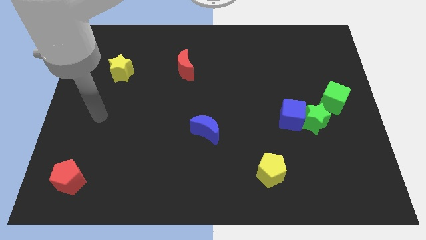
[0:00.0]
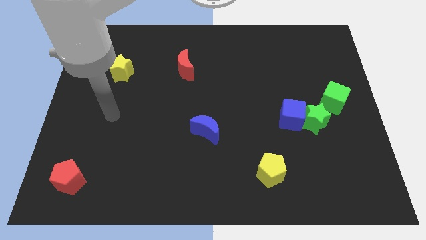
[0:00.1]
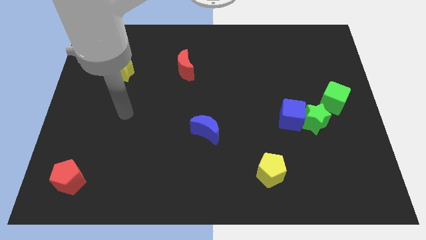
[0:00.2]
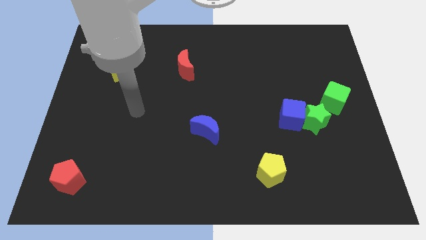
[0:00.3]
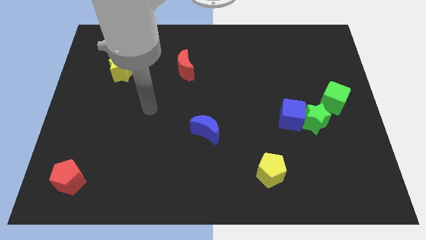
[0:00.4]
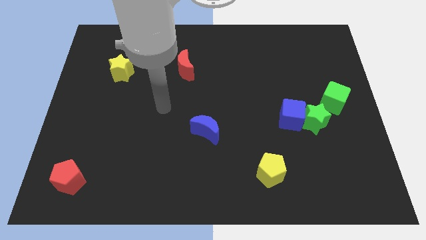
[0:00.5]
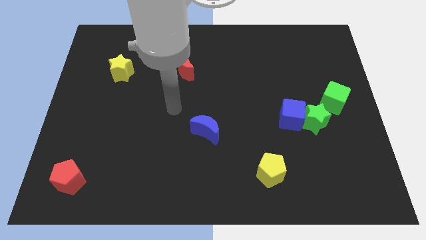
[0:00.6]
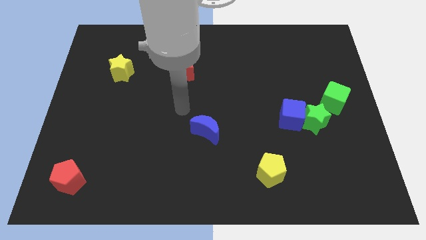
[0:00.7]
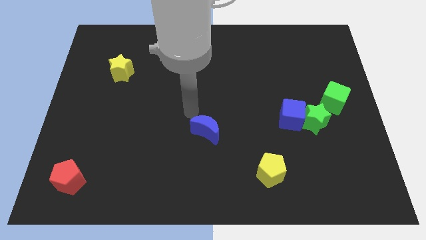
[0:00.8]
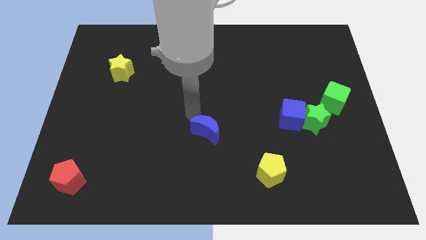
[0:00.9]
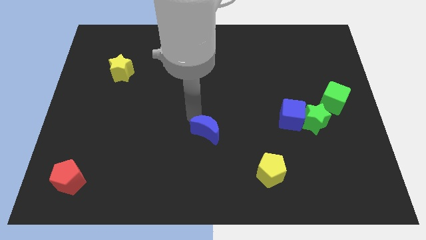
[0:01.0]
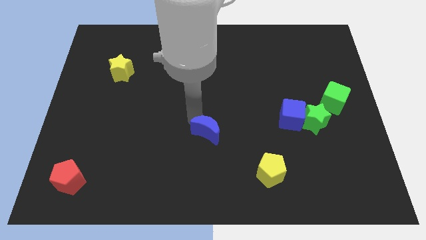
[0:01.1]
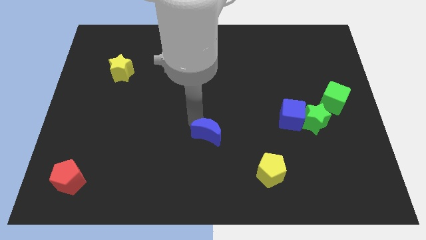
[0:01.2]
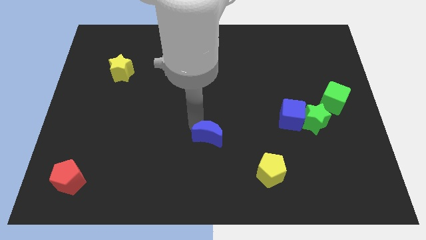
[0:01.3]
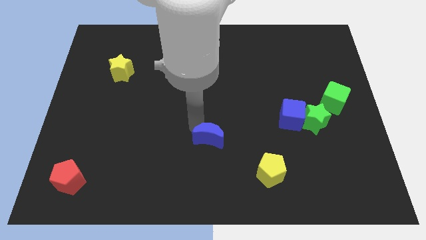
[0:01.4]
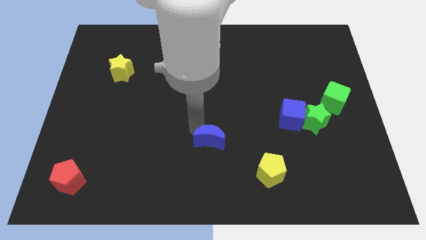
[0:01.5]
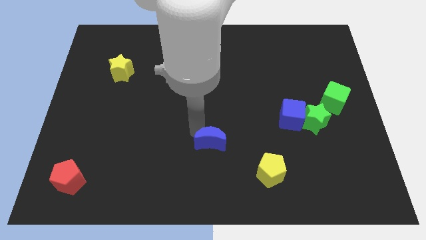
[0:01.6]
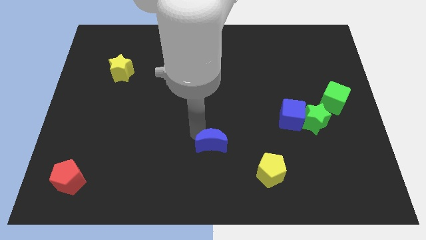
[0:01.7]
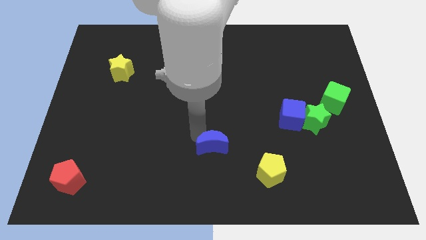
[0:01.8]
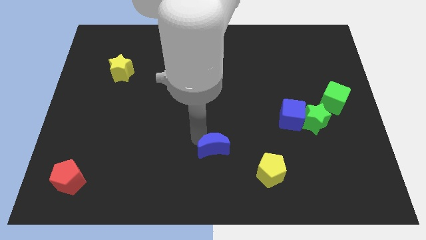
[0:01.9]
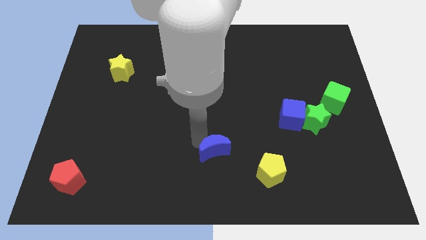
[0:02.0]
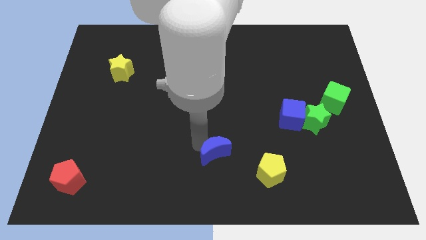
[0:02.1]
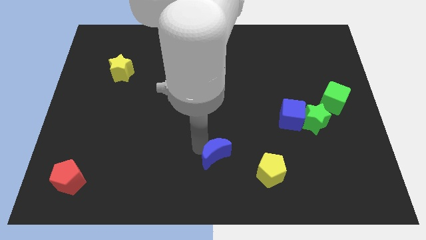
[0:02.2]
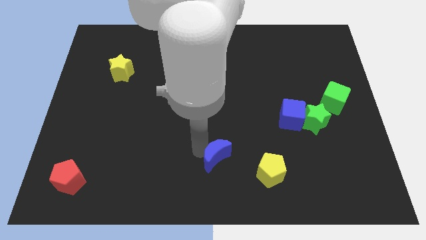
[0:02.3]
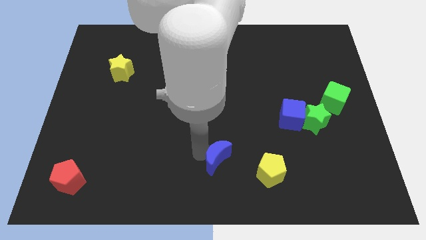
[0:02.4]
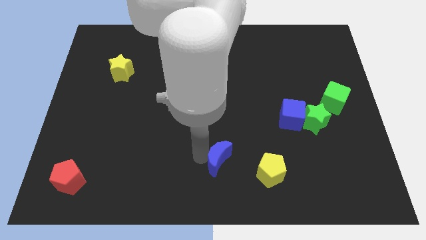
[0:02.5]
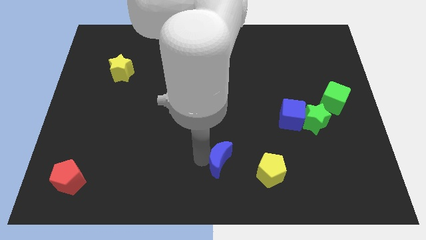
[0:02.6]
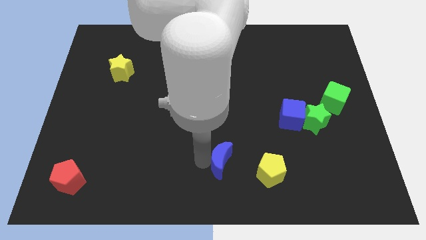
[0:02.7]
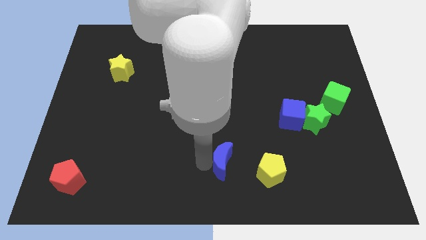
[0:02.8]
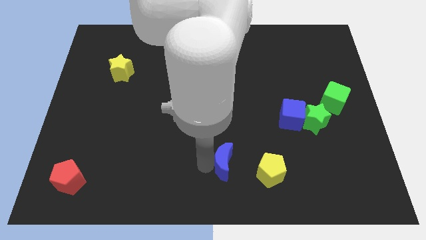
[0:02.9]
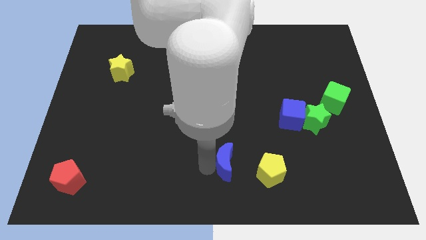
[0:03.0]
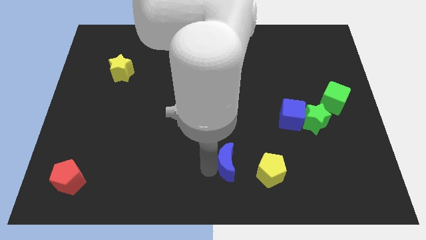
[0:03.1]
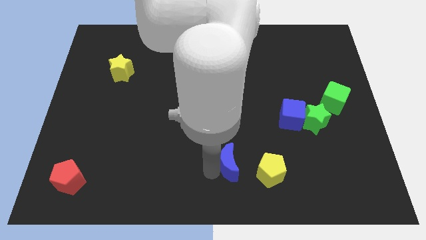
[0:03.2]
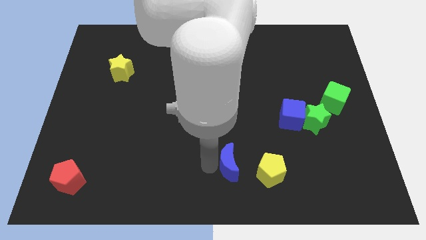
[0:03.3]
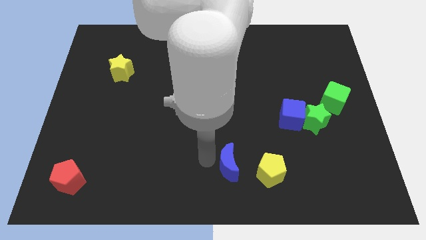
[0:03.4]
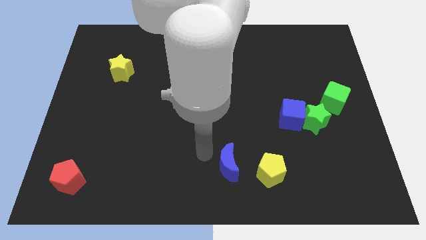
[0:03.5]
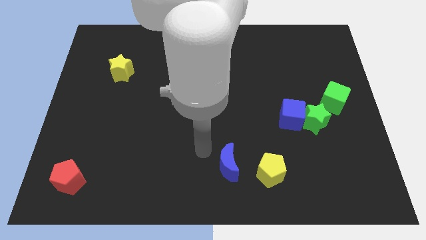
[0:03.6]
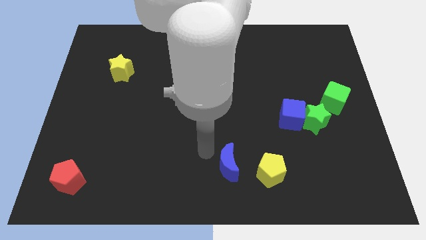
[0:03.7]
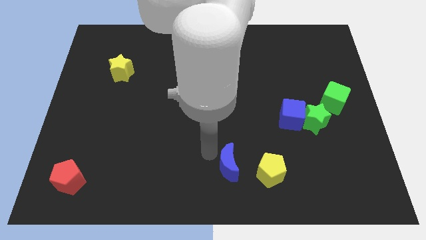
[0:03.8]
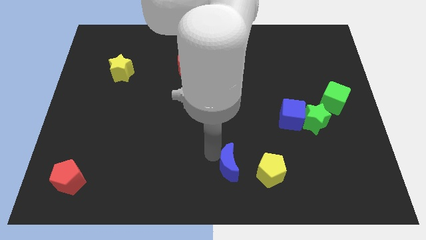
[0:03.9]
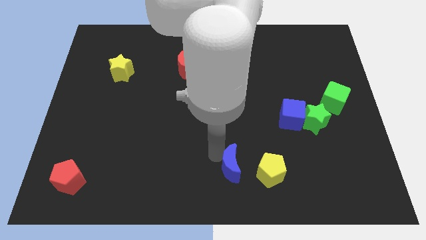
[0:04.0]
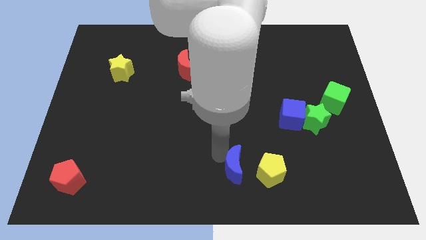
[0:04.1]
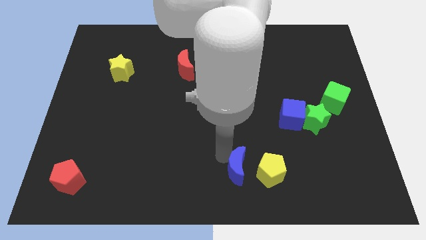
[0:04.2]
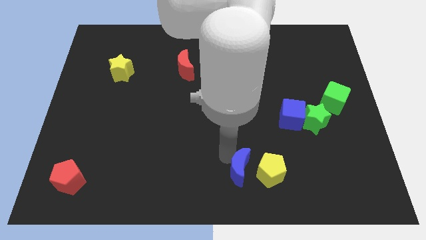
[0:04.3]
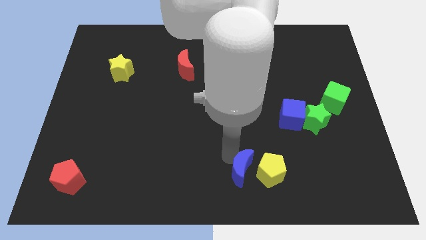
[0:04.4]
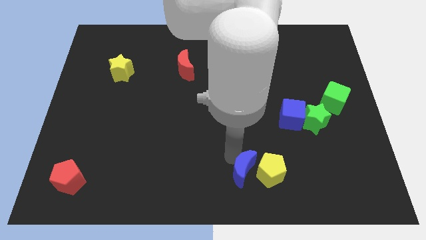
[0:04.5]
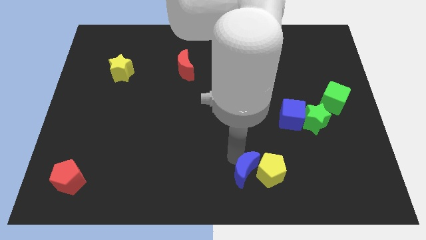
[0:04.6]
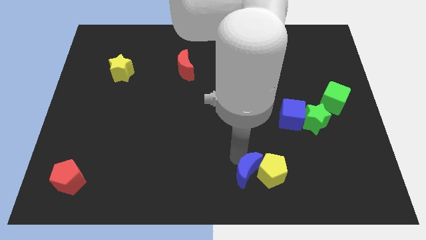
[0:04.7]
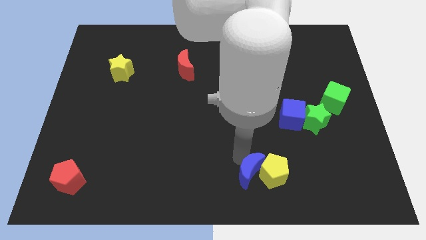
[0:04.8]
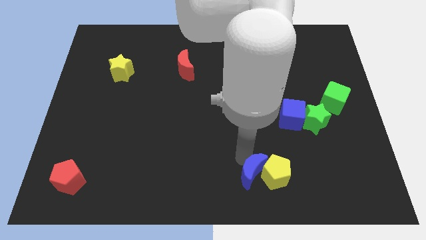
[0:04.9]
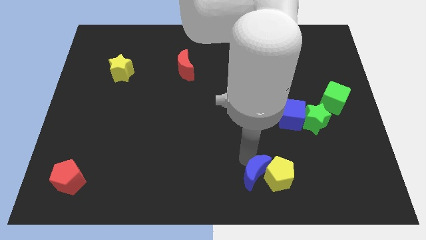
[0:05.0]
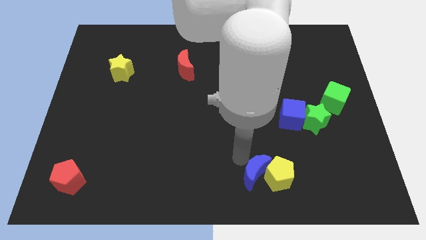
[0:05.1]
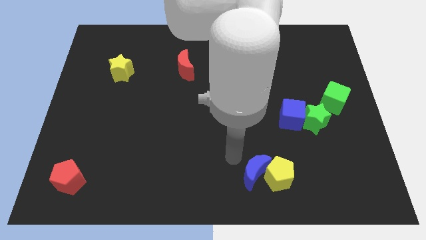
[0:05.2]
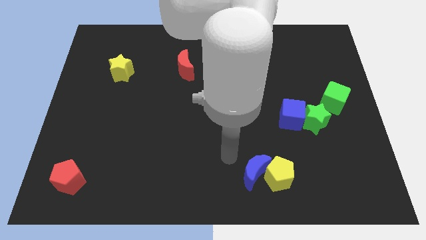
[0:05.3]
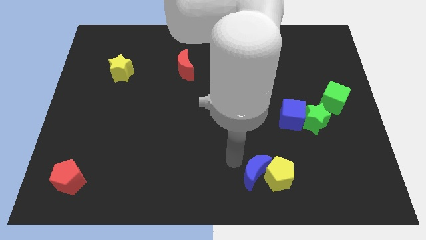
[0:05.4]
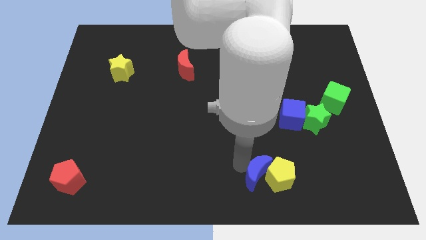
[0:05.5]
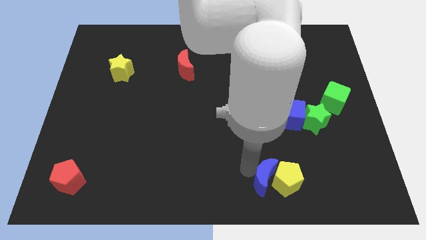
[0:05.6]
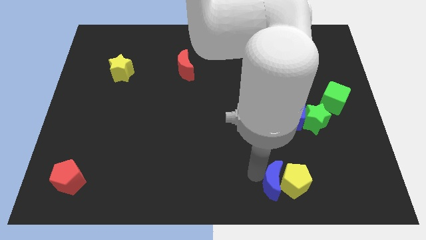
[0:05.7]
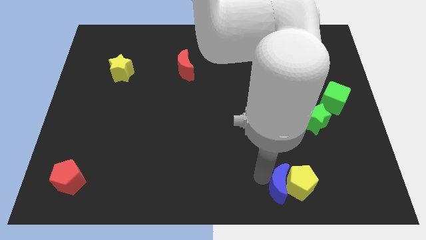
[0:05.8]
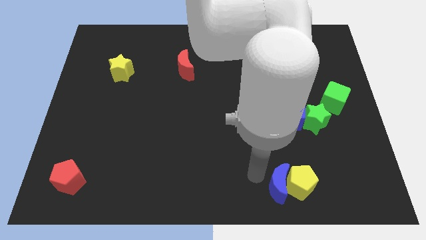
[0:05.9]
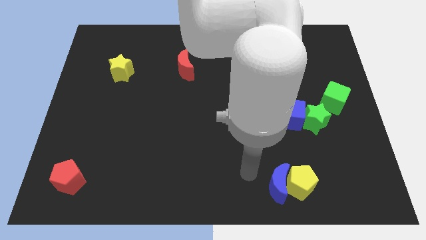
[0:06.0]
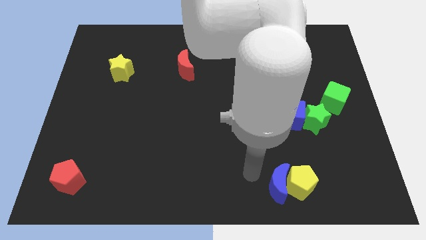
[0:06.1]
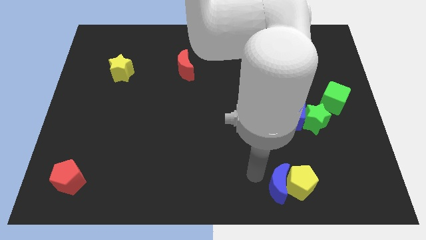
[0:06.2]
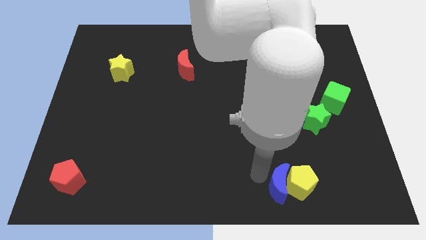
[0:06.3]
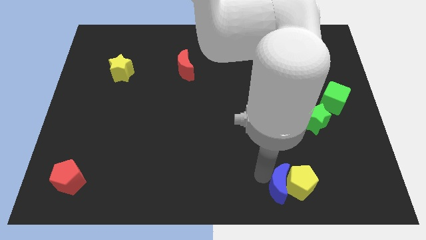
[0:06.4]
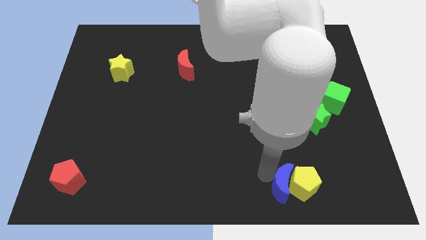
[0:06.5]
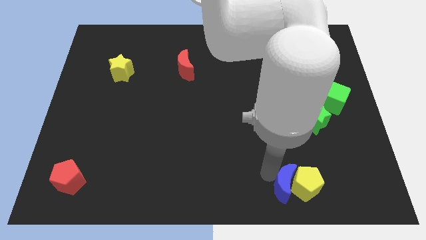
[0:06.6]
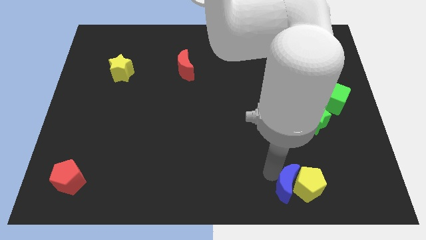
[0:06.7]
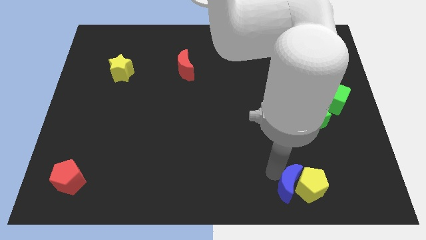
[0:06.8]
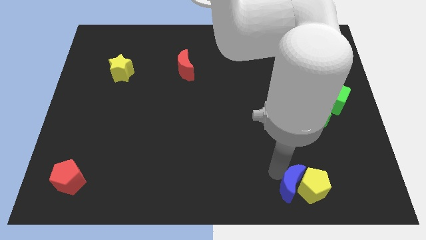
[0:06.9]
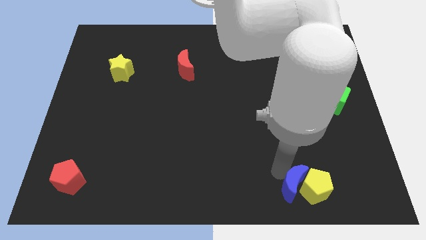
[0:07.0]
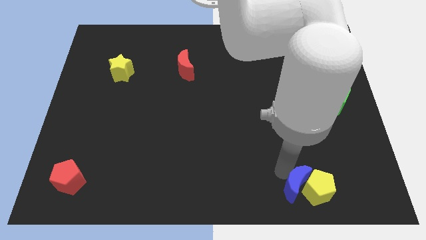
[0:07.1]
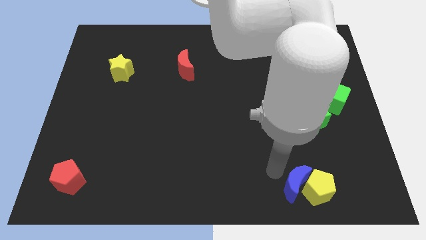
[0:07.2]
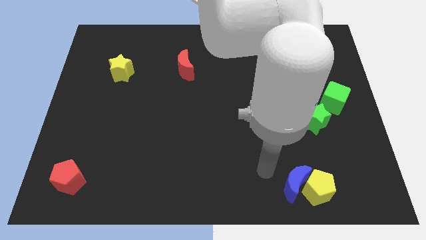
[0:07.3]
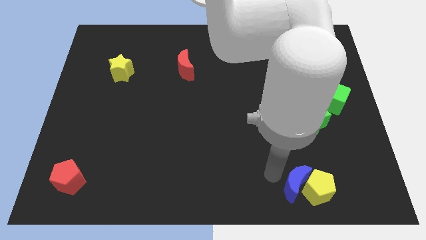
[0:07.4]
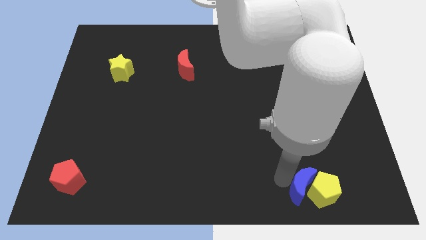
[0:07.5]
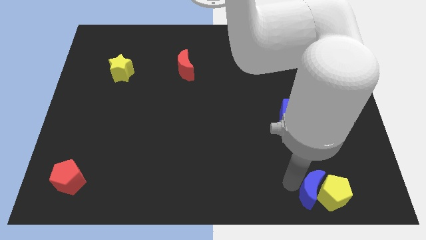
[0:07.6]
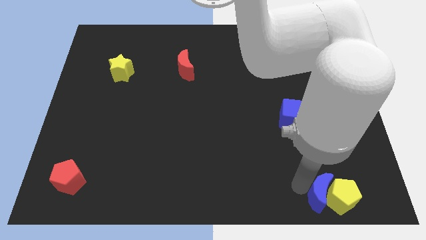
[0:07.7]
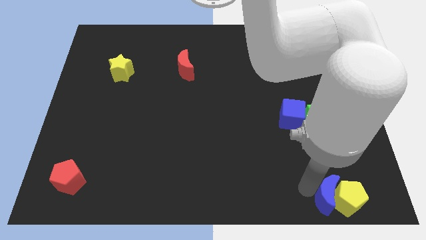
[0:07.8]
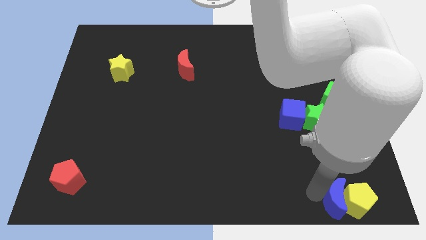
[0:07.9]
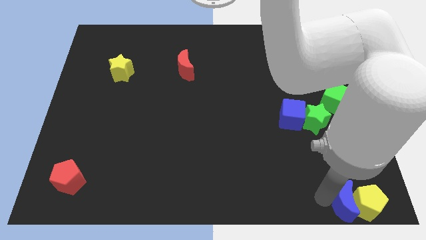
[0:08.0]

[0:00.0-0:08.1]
push the blue moon to the lower right corner
